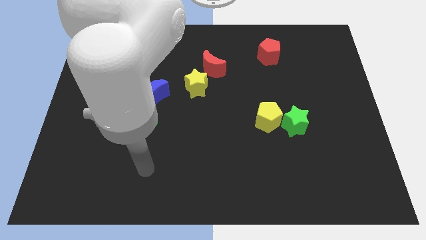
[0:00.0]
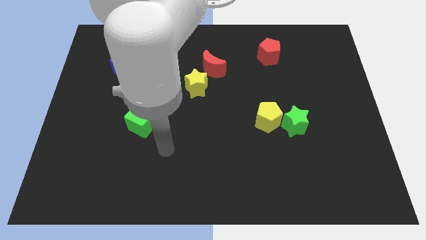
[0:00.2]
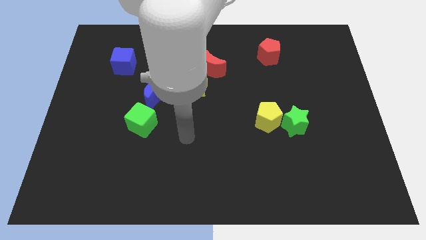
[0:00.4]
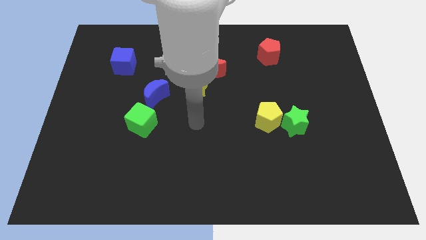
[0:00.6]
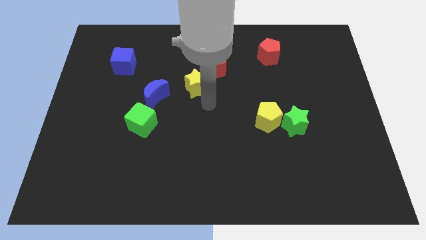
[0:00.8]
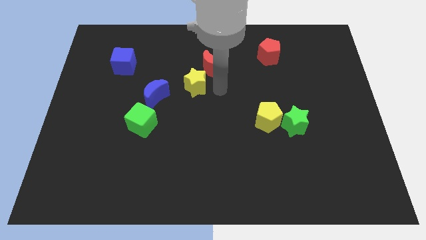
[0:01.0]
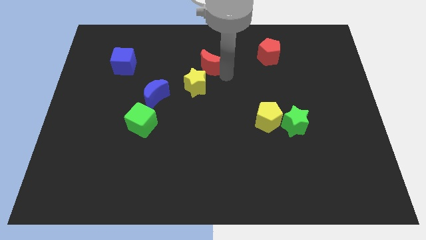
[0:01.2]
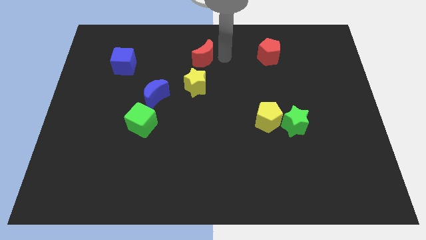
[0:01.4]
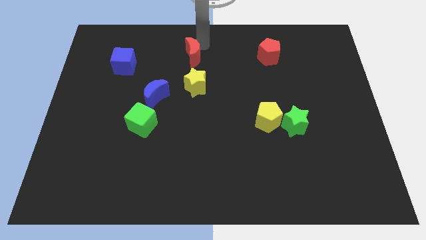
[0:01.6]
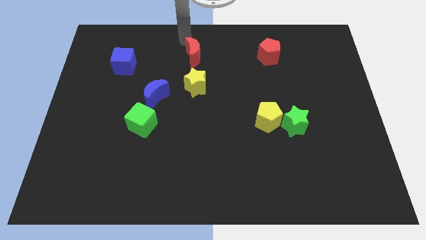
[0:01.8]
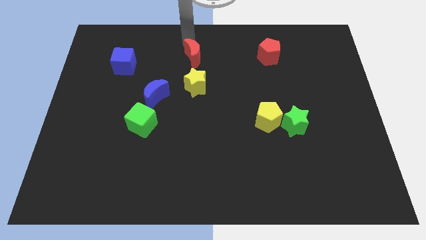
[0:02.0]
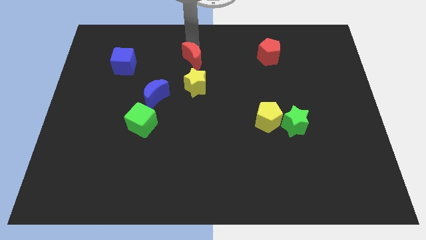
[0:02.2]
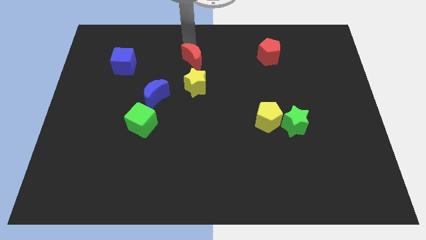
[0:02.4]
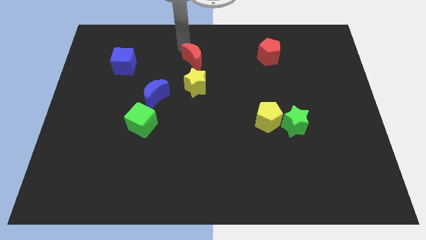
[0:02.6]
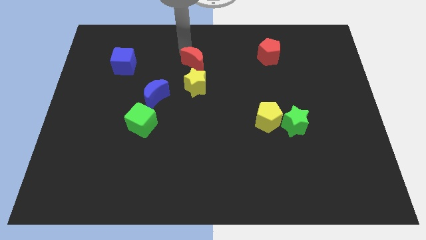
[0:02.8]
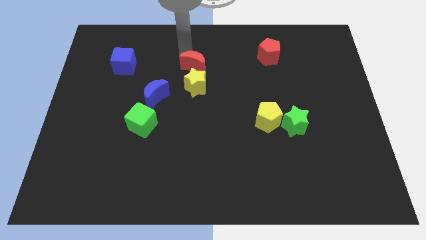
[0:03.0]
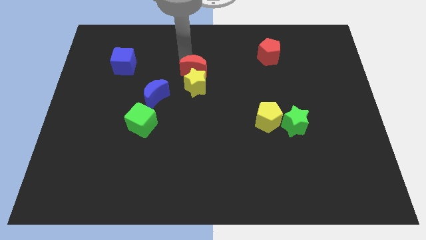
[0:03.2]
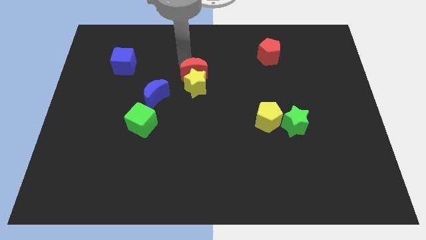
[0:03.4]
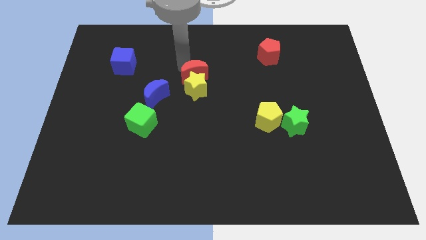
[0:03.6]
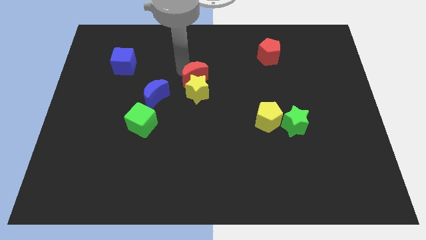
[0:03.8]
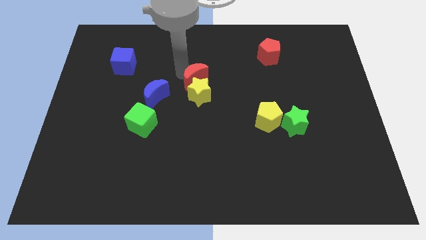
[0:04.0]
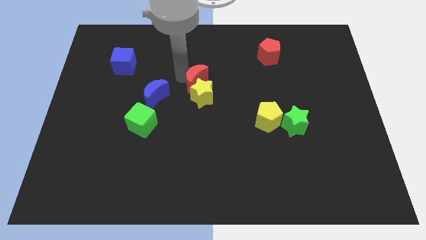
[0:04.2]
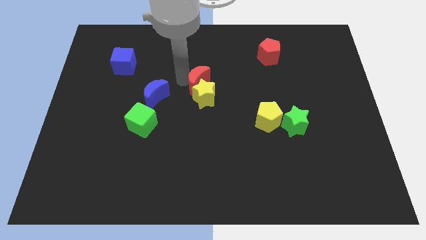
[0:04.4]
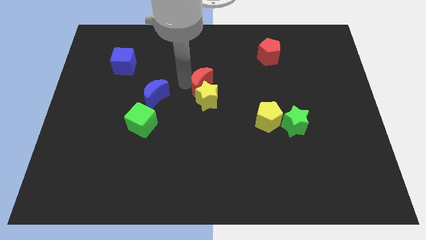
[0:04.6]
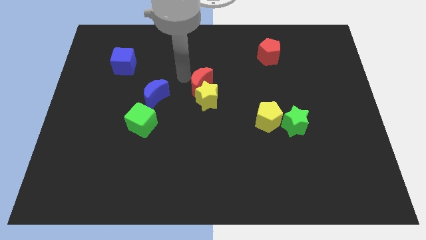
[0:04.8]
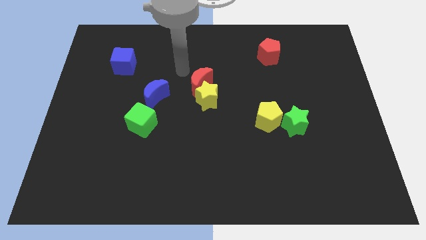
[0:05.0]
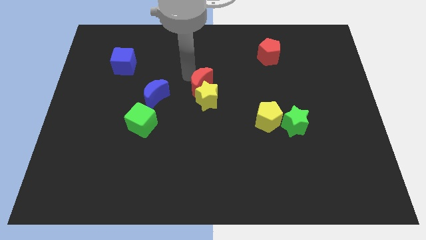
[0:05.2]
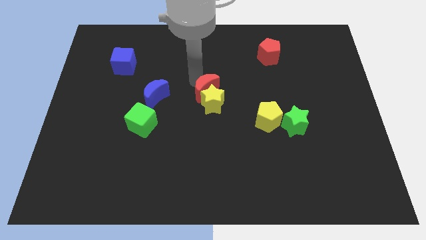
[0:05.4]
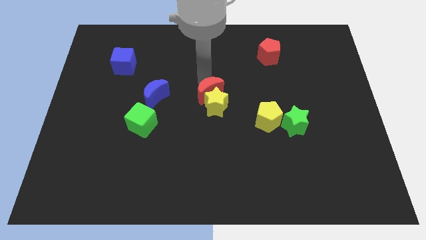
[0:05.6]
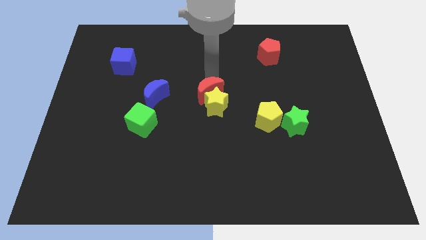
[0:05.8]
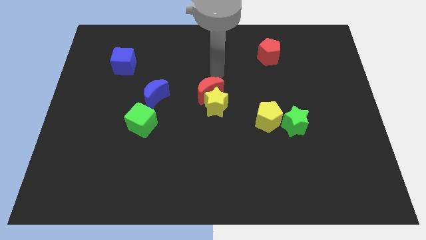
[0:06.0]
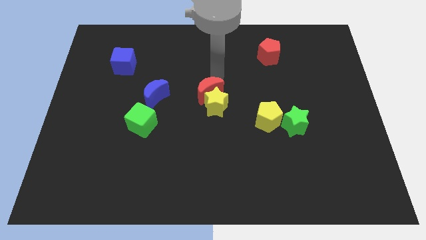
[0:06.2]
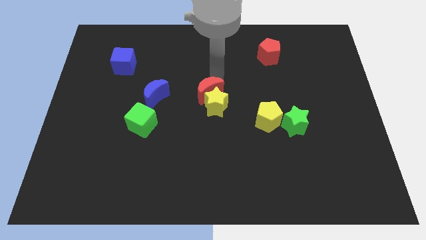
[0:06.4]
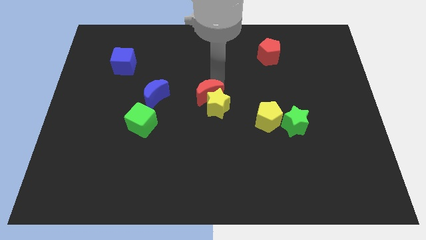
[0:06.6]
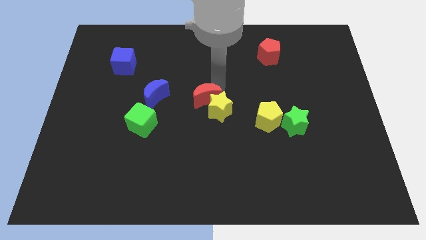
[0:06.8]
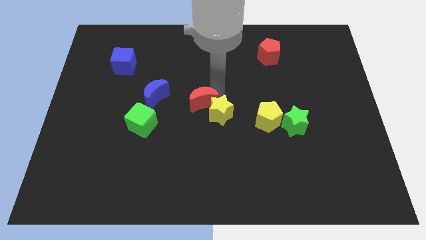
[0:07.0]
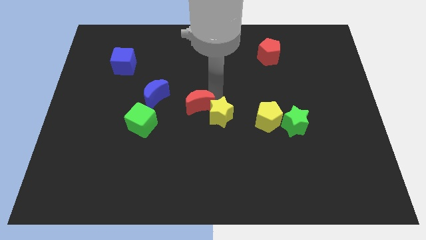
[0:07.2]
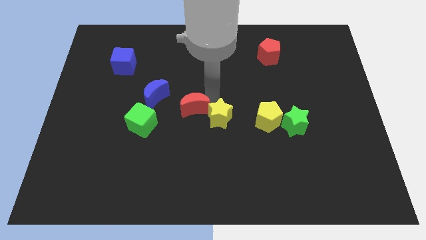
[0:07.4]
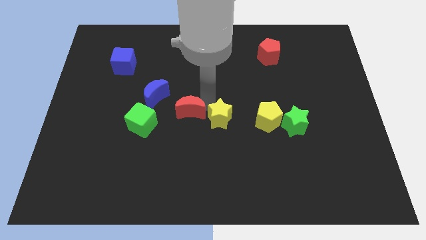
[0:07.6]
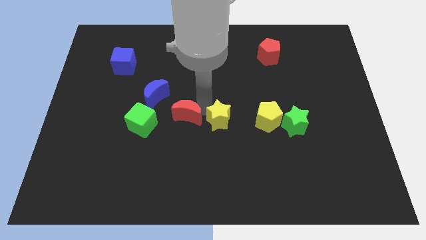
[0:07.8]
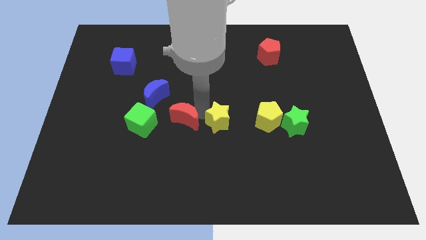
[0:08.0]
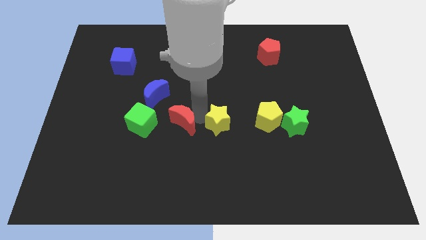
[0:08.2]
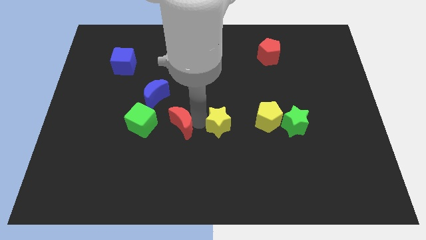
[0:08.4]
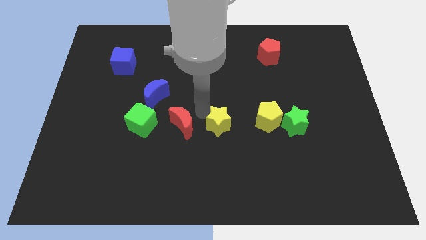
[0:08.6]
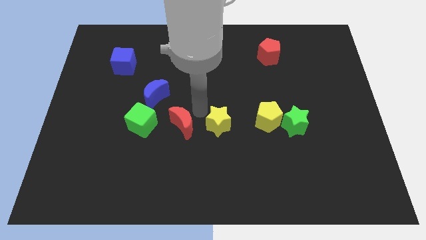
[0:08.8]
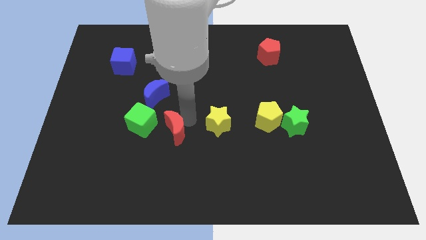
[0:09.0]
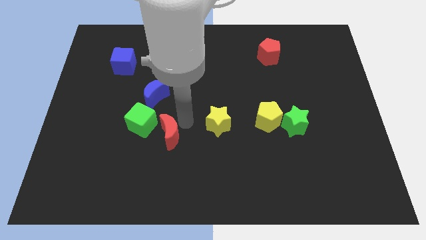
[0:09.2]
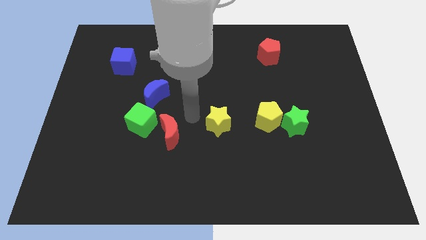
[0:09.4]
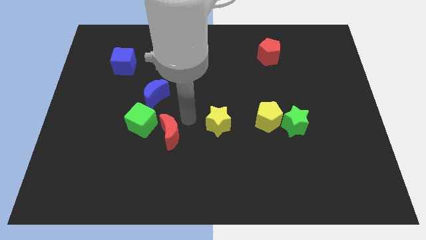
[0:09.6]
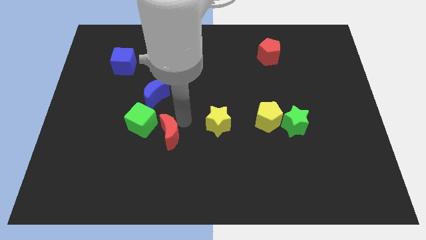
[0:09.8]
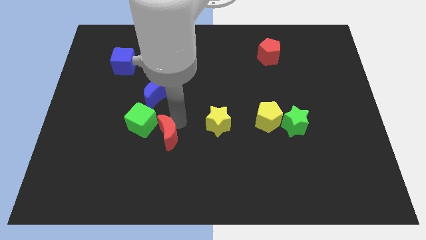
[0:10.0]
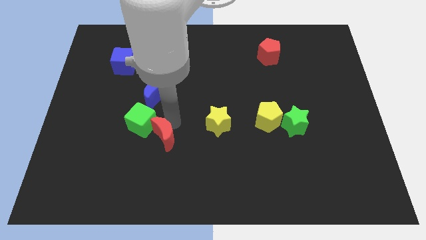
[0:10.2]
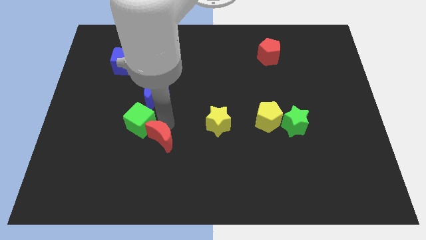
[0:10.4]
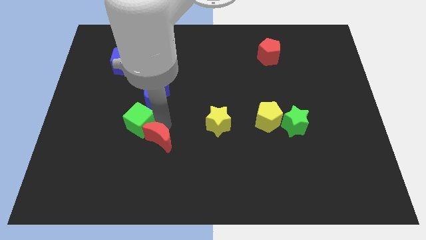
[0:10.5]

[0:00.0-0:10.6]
push the red moon to the bottom side of the green cube

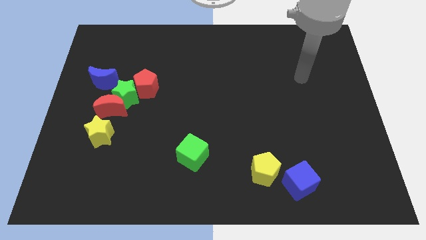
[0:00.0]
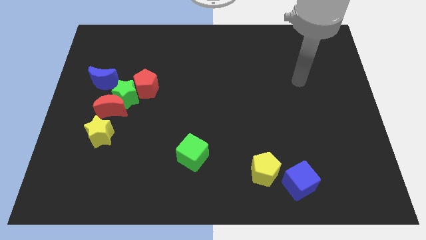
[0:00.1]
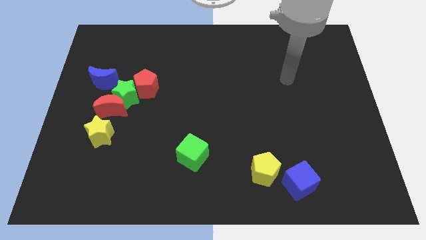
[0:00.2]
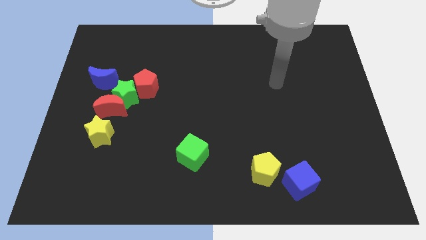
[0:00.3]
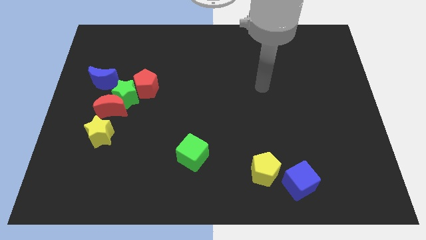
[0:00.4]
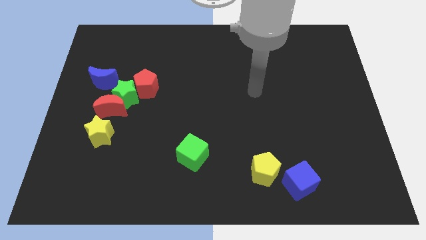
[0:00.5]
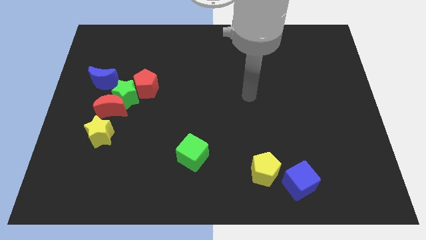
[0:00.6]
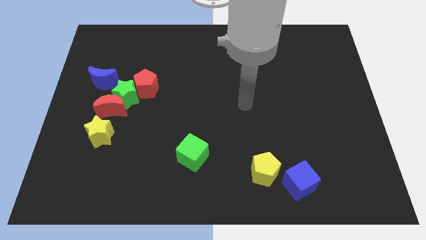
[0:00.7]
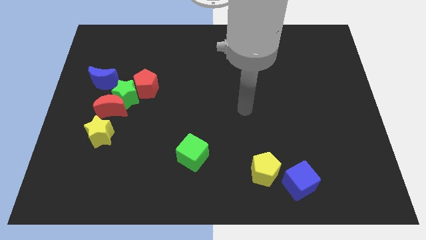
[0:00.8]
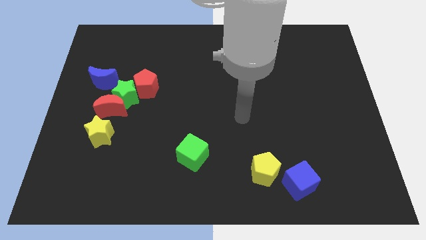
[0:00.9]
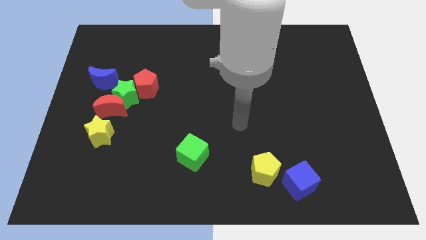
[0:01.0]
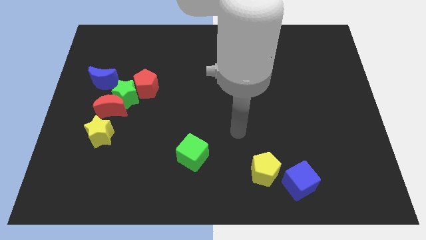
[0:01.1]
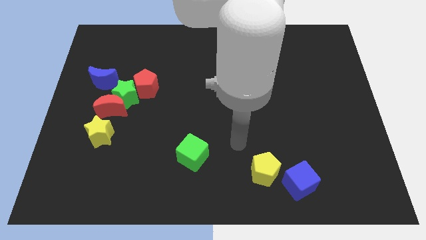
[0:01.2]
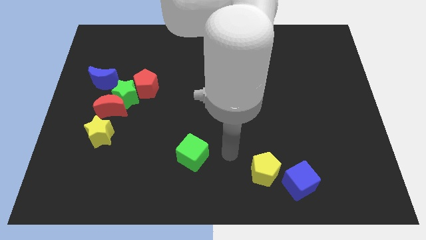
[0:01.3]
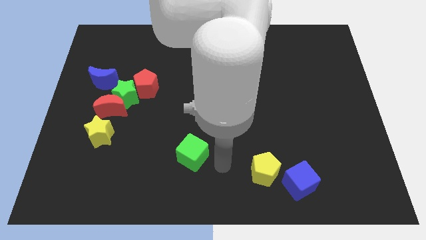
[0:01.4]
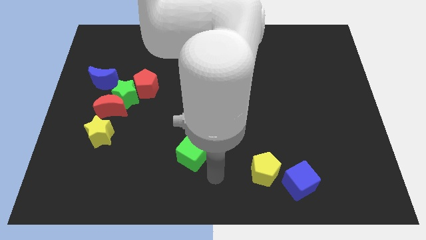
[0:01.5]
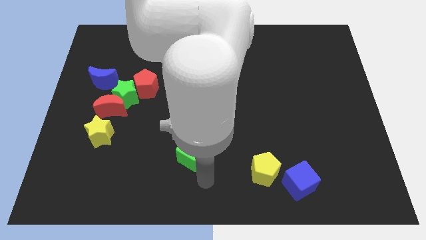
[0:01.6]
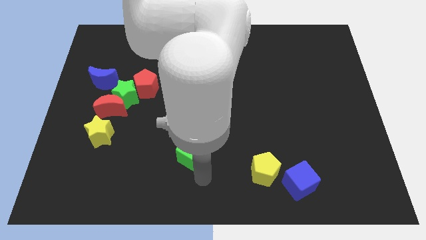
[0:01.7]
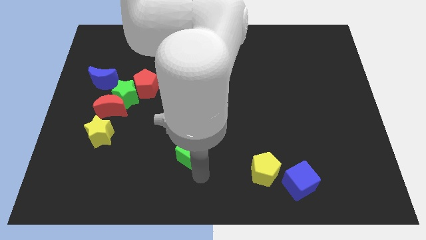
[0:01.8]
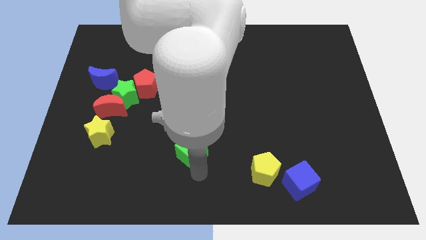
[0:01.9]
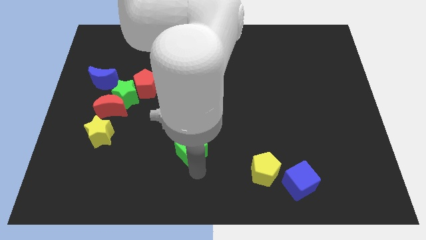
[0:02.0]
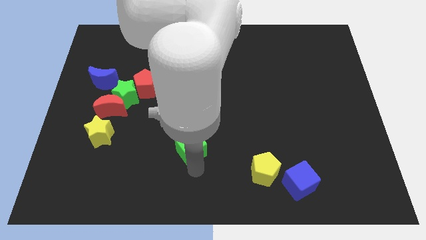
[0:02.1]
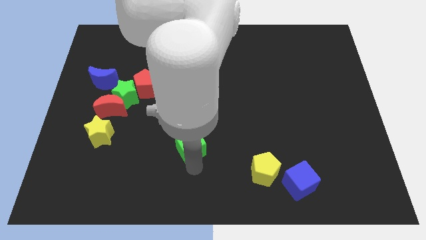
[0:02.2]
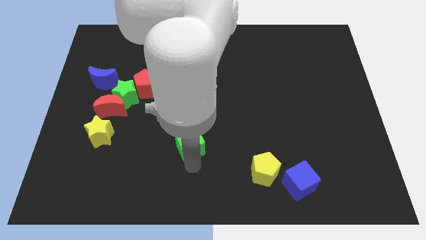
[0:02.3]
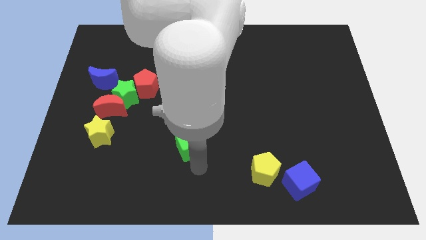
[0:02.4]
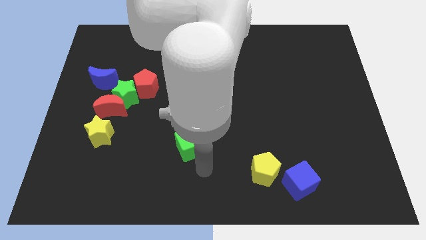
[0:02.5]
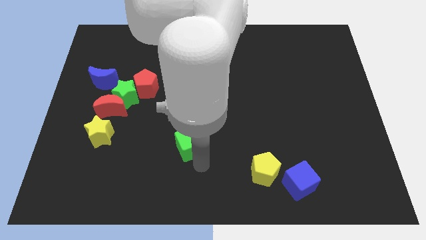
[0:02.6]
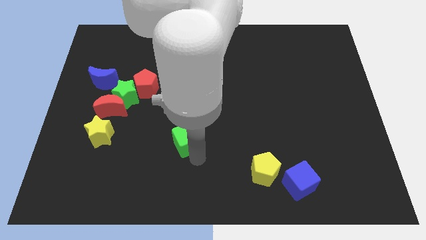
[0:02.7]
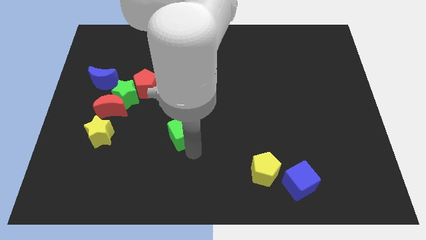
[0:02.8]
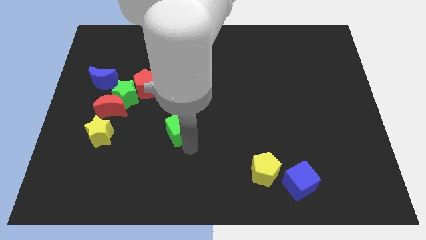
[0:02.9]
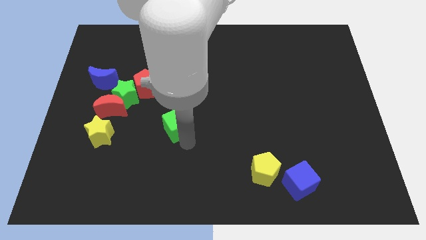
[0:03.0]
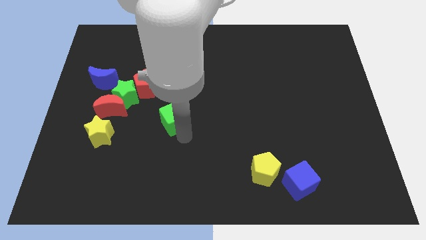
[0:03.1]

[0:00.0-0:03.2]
push the green cube right of the red moon
